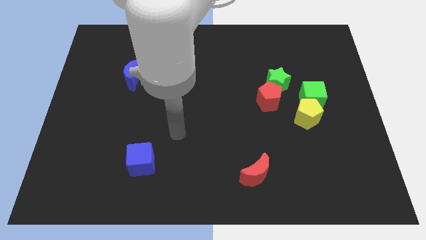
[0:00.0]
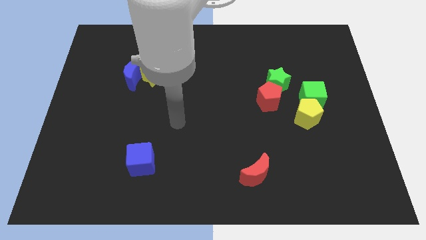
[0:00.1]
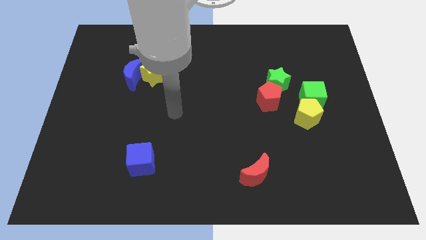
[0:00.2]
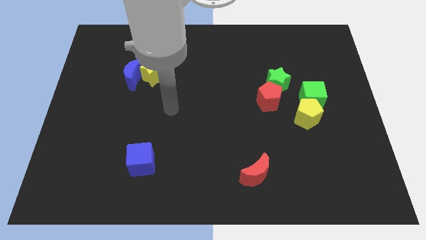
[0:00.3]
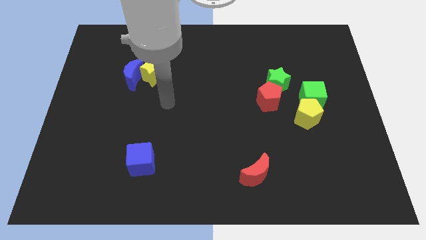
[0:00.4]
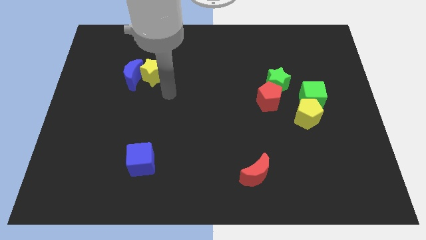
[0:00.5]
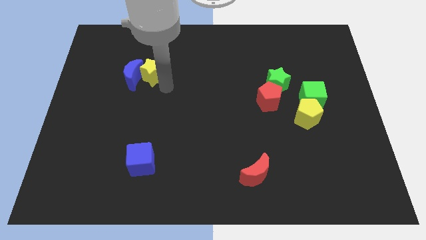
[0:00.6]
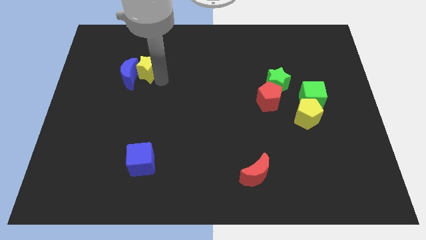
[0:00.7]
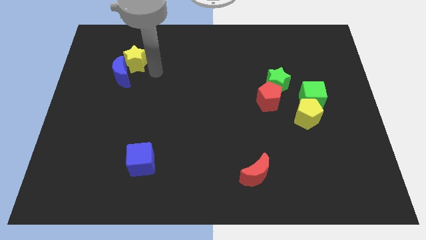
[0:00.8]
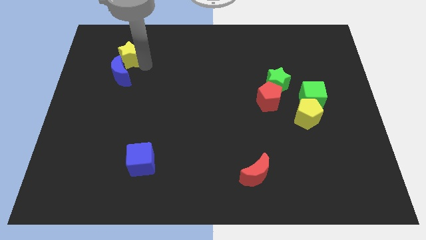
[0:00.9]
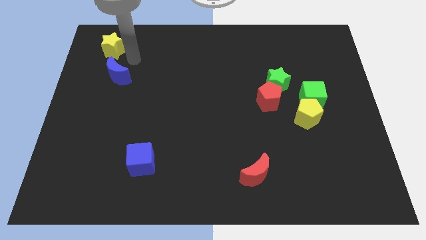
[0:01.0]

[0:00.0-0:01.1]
pull the blue moon apart from the yellow star

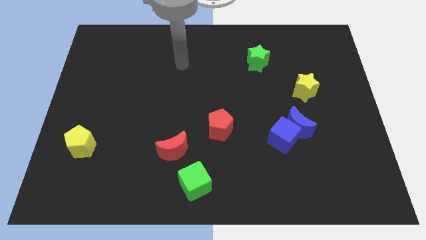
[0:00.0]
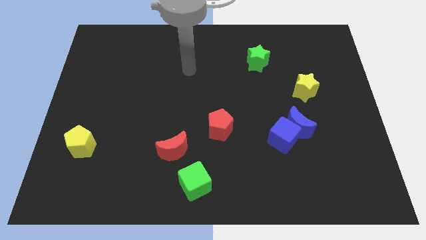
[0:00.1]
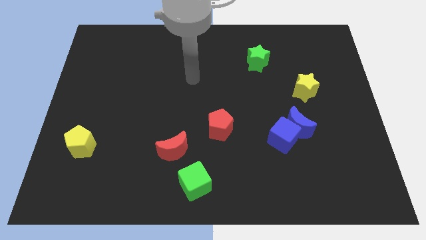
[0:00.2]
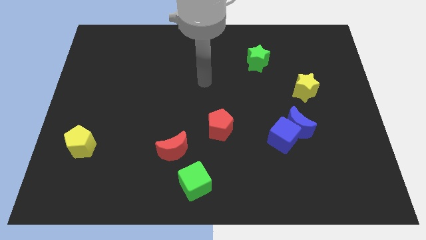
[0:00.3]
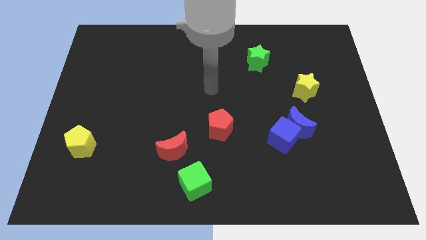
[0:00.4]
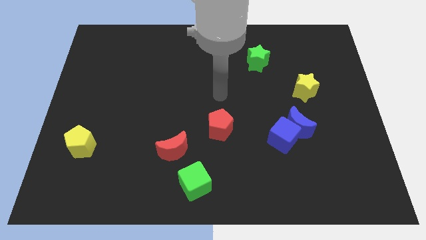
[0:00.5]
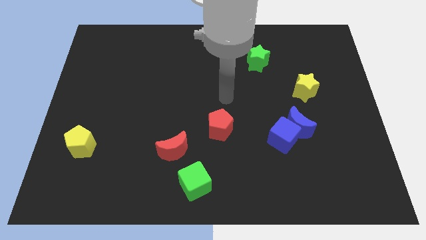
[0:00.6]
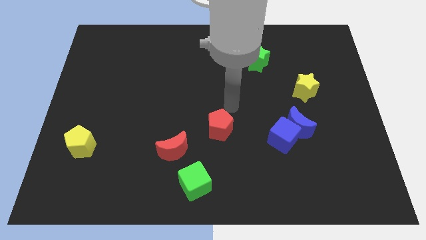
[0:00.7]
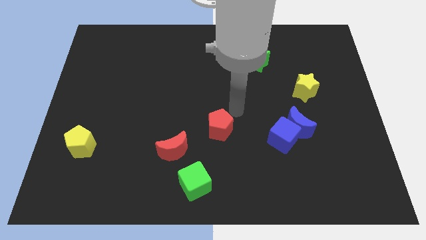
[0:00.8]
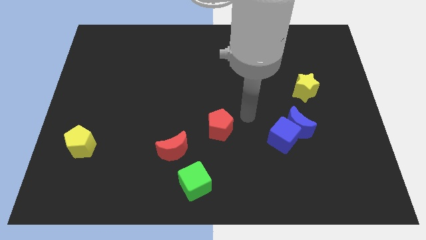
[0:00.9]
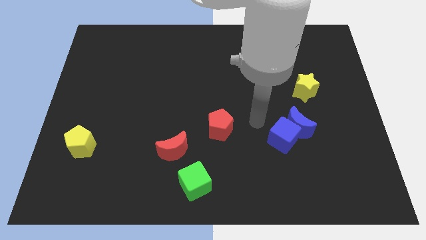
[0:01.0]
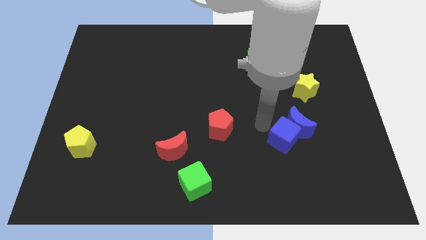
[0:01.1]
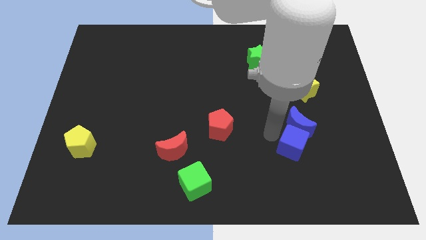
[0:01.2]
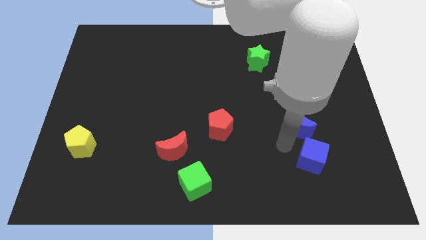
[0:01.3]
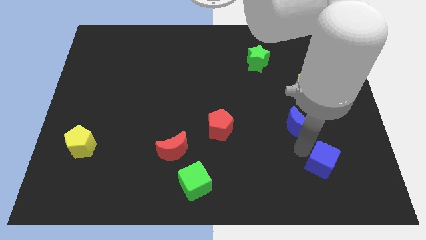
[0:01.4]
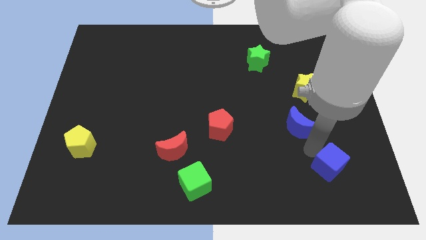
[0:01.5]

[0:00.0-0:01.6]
pull the blue moon apart from the blue cube

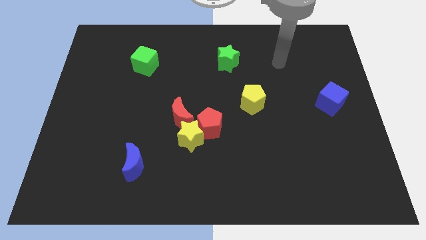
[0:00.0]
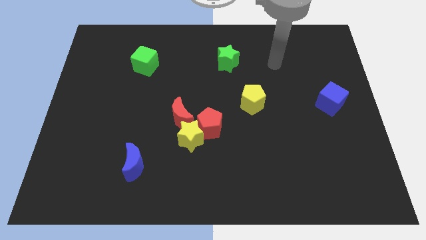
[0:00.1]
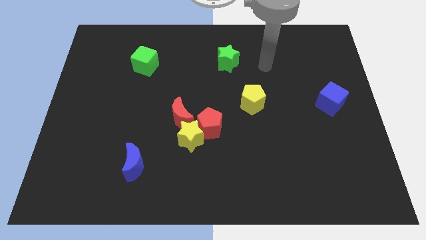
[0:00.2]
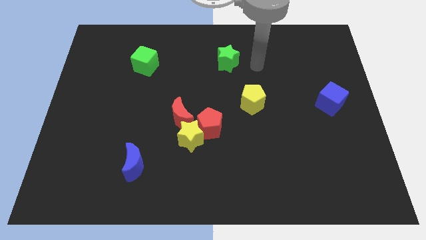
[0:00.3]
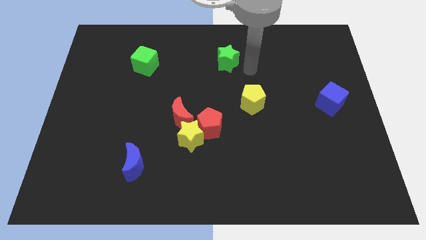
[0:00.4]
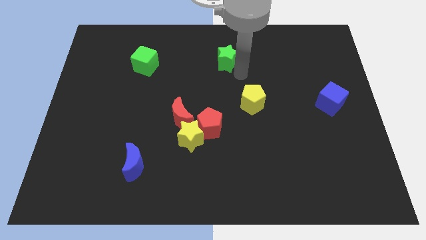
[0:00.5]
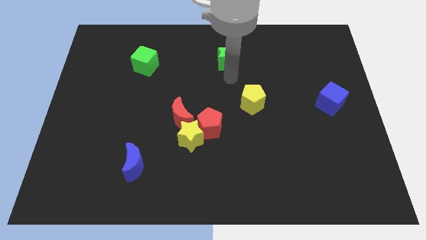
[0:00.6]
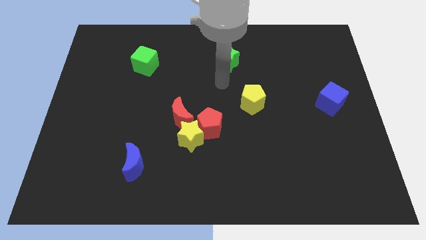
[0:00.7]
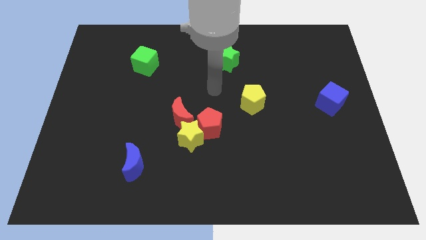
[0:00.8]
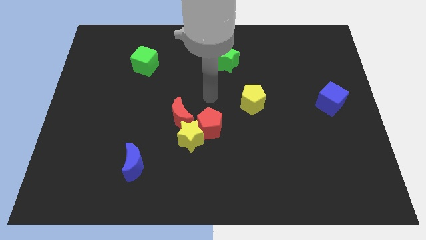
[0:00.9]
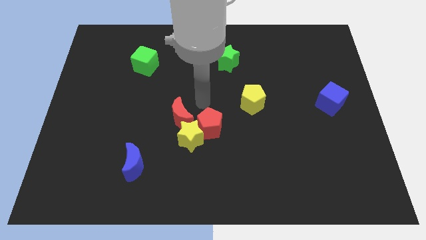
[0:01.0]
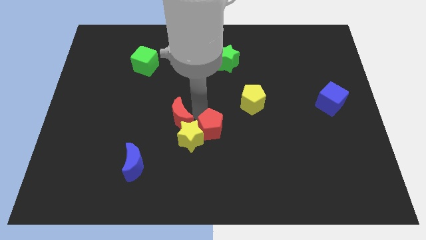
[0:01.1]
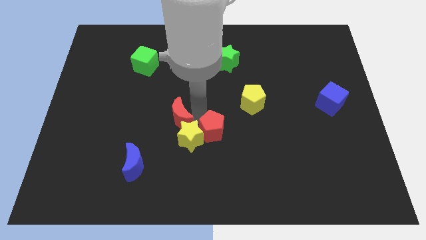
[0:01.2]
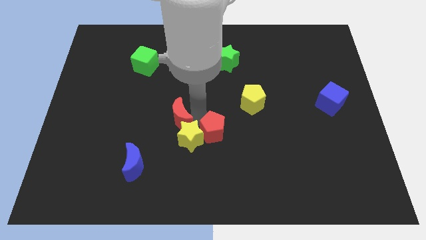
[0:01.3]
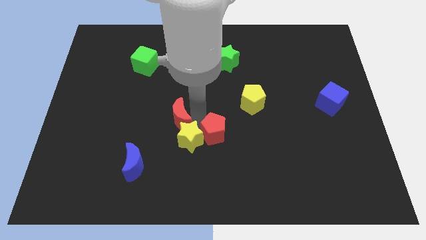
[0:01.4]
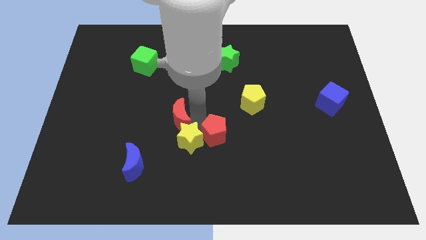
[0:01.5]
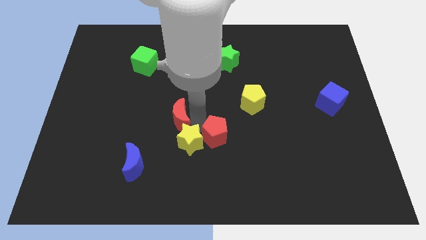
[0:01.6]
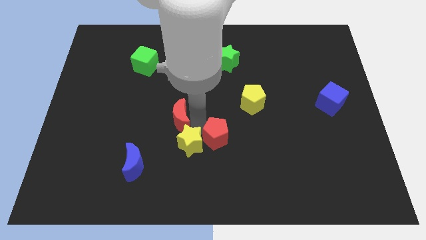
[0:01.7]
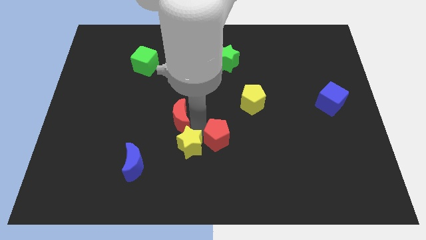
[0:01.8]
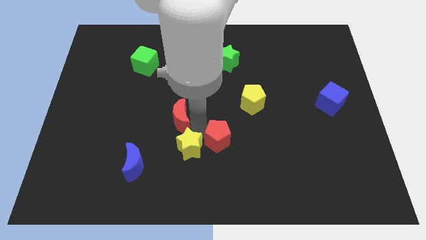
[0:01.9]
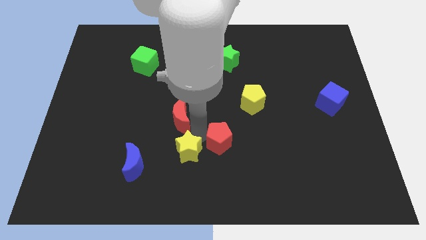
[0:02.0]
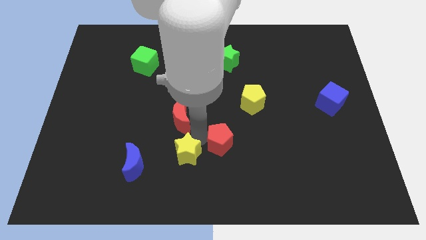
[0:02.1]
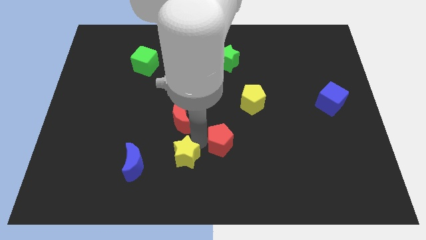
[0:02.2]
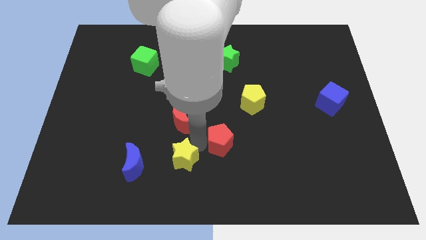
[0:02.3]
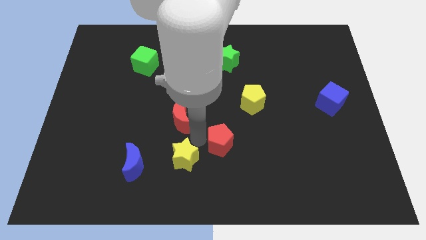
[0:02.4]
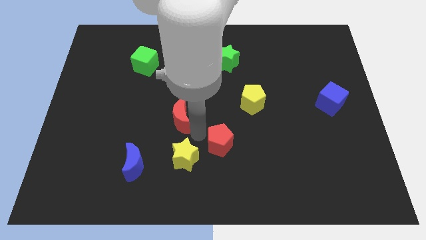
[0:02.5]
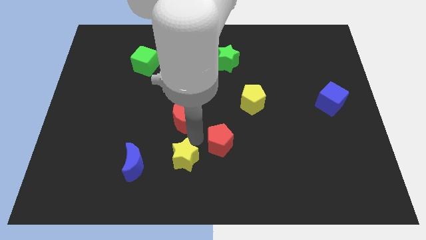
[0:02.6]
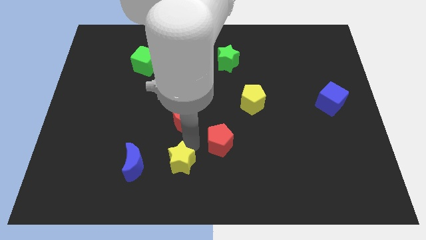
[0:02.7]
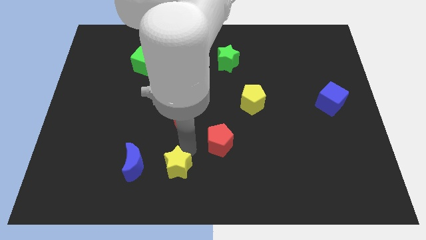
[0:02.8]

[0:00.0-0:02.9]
separate the yellow star from the red pentagon and red moon

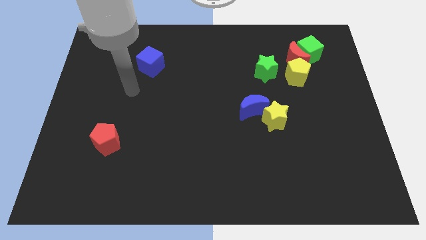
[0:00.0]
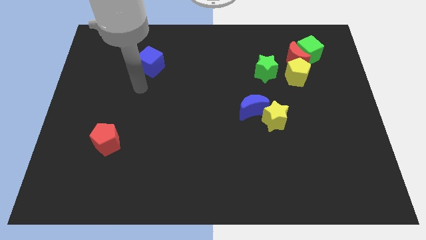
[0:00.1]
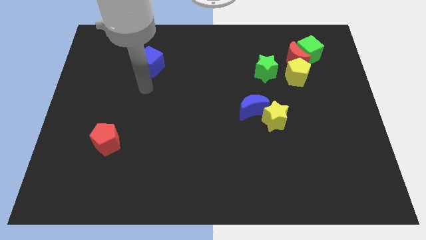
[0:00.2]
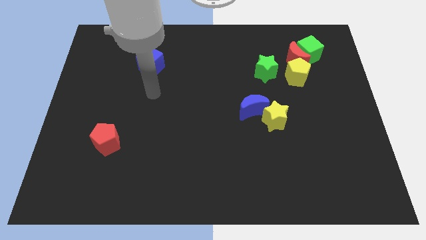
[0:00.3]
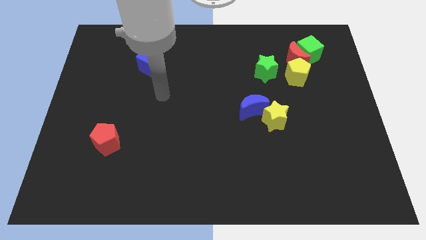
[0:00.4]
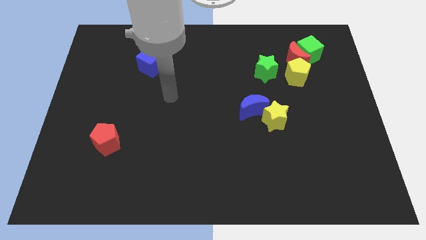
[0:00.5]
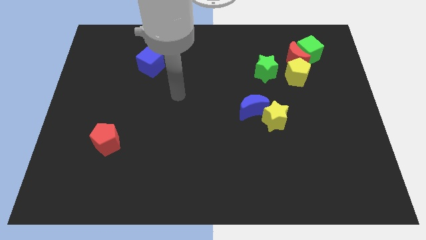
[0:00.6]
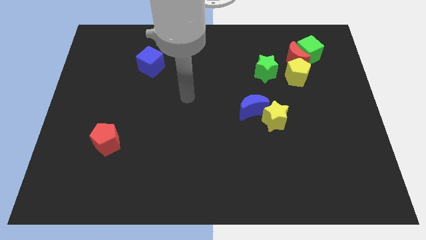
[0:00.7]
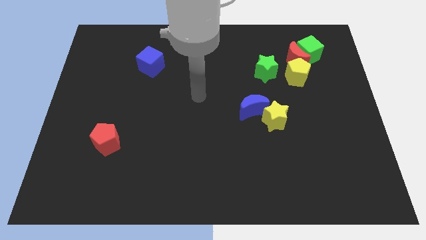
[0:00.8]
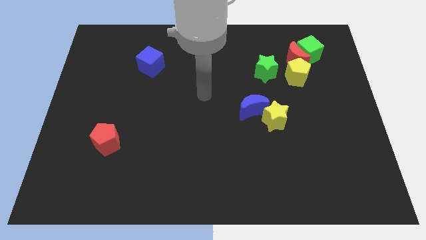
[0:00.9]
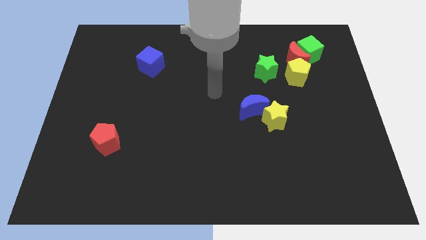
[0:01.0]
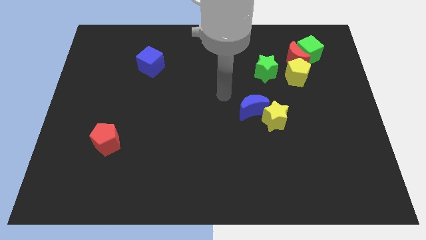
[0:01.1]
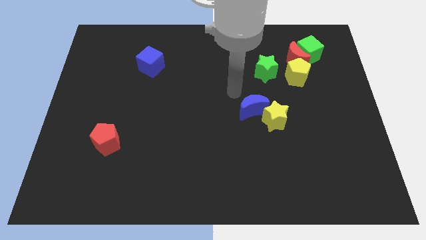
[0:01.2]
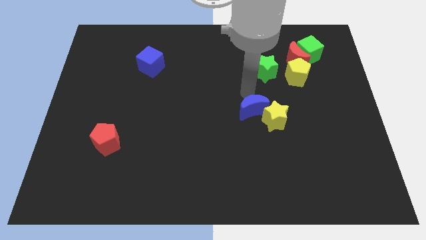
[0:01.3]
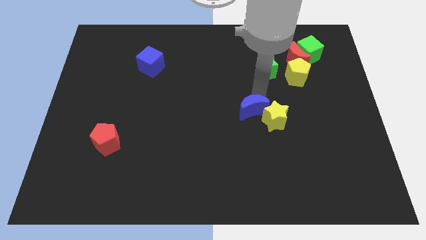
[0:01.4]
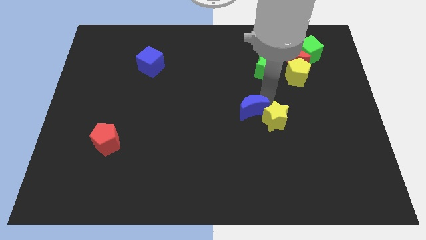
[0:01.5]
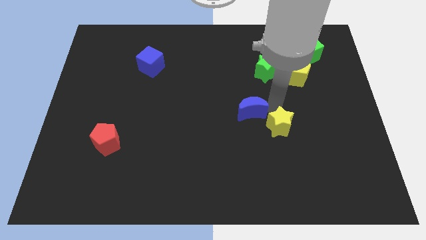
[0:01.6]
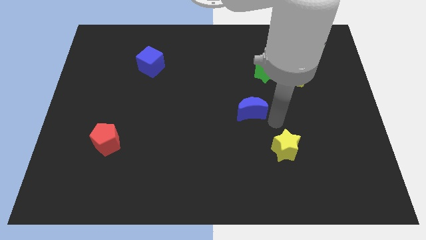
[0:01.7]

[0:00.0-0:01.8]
separate the blue moon from the yellow star

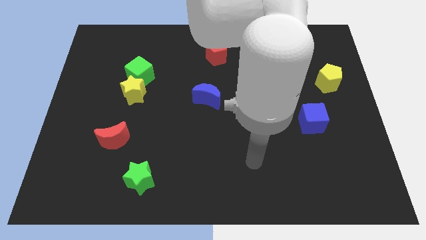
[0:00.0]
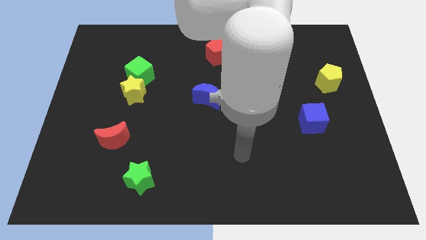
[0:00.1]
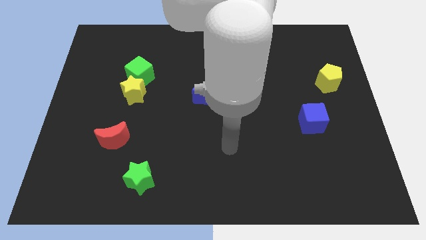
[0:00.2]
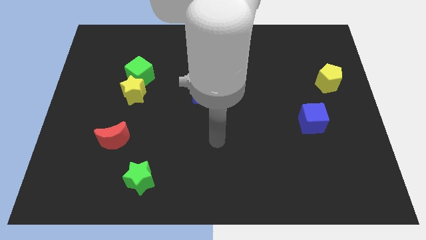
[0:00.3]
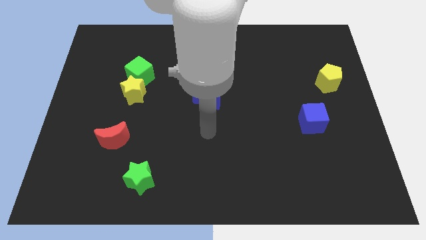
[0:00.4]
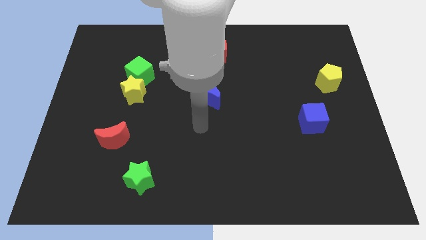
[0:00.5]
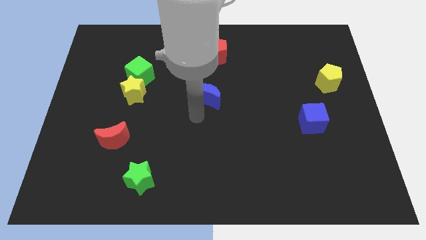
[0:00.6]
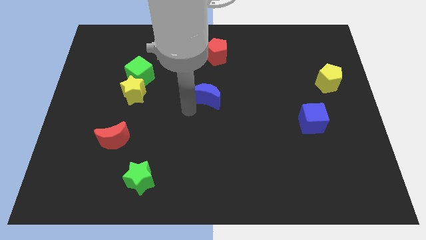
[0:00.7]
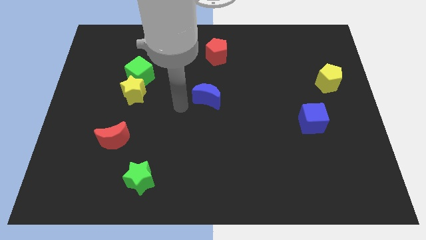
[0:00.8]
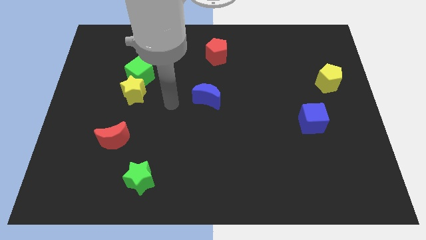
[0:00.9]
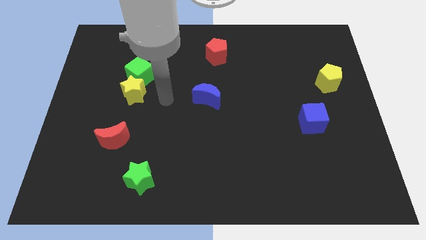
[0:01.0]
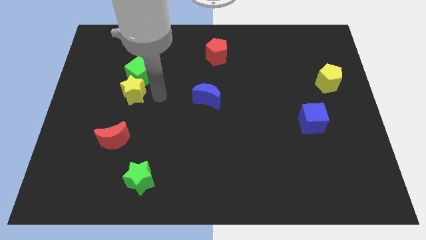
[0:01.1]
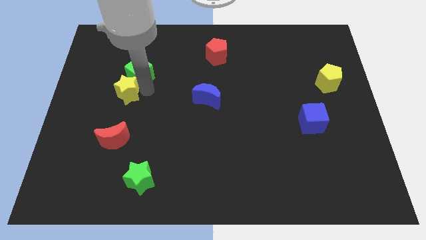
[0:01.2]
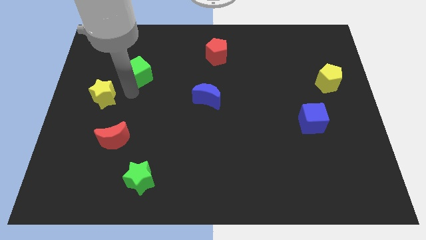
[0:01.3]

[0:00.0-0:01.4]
pull the green cube apart from the yellow star

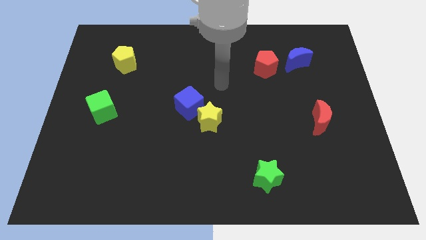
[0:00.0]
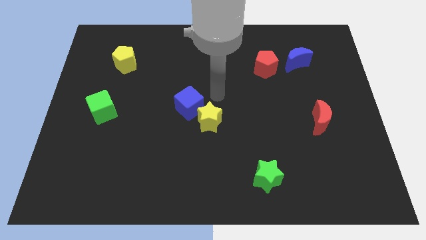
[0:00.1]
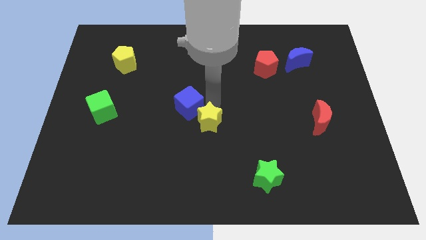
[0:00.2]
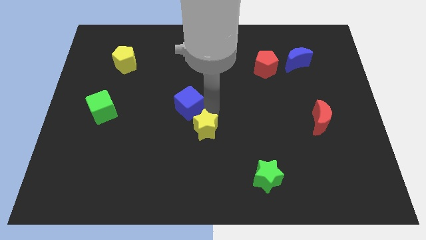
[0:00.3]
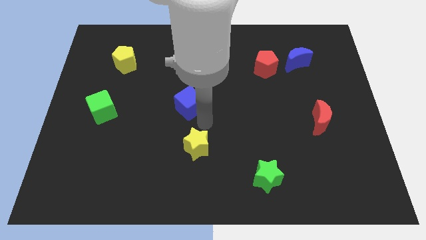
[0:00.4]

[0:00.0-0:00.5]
separate the blue cube from the yellow star
